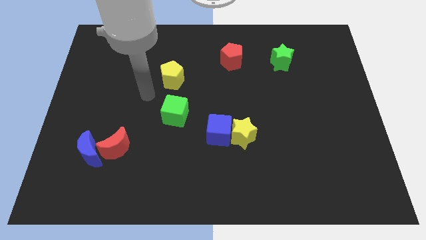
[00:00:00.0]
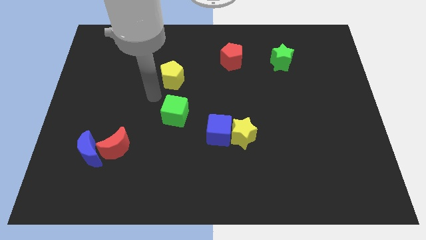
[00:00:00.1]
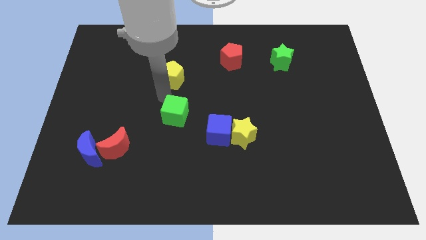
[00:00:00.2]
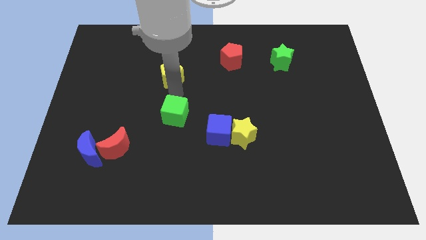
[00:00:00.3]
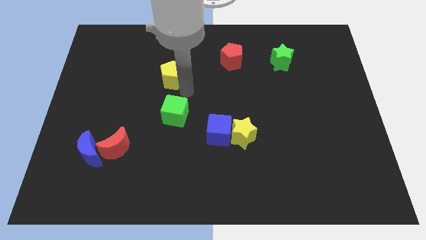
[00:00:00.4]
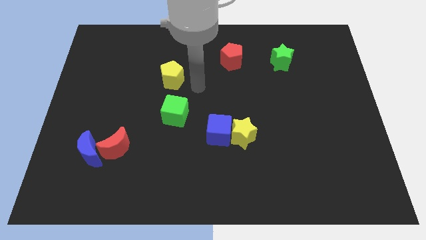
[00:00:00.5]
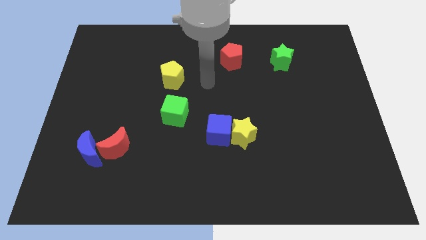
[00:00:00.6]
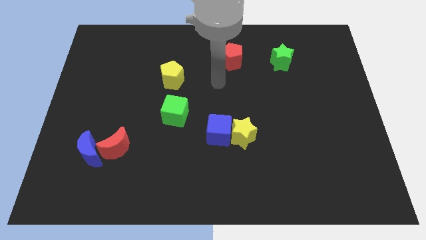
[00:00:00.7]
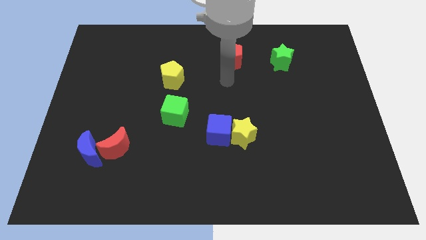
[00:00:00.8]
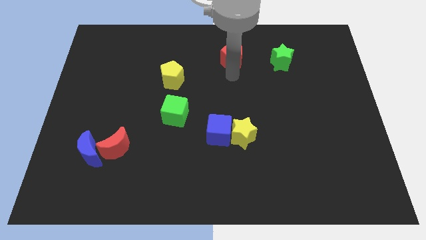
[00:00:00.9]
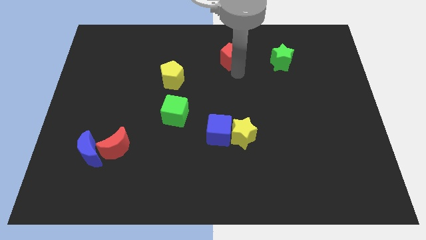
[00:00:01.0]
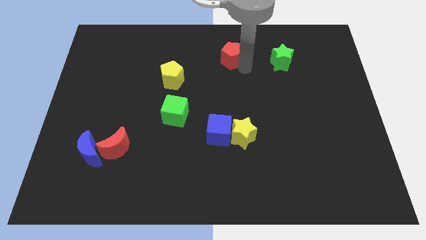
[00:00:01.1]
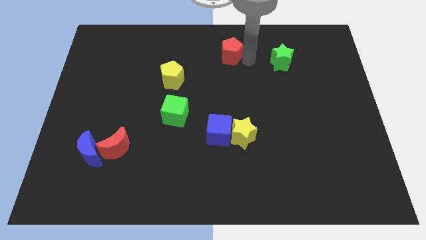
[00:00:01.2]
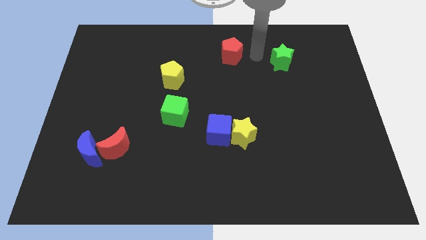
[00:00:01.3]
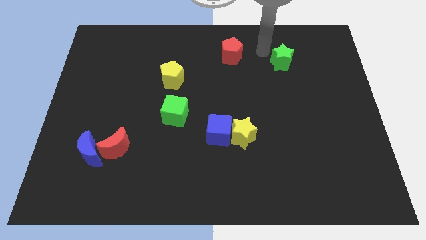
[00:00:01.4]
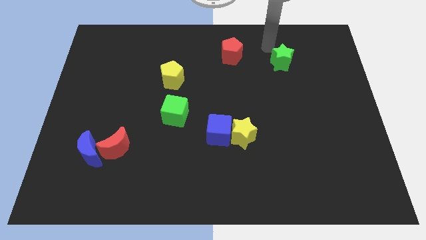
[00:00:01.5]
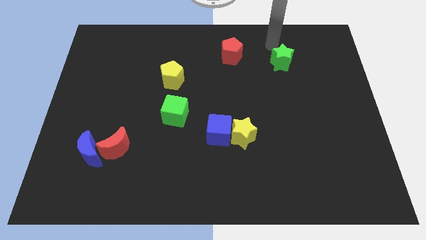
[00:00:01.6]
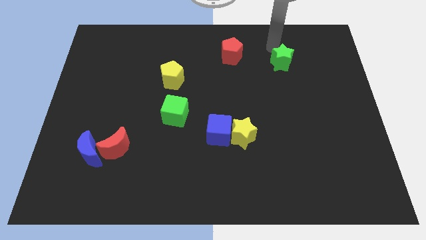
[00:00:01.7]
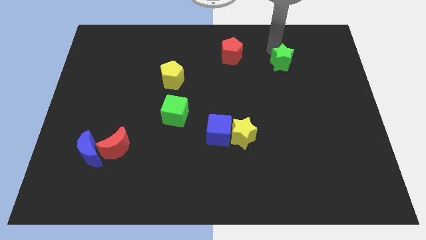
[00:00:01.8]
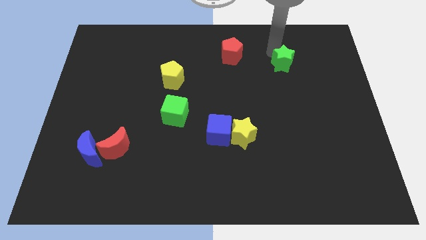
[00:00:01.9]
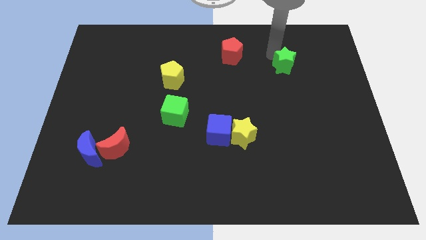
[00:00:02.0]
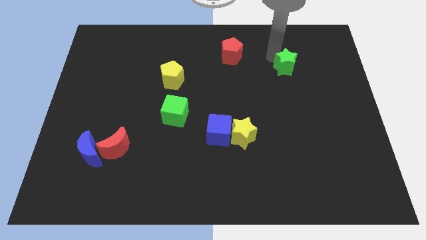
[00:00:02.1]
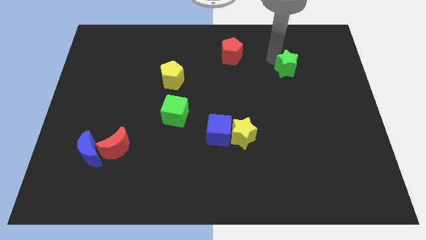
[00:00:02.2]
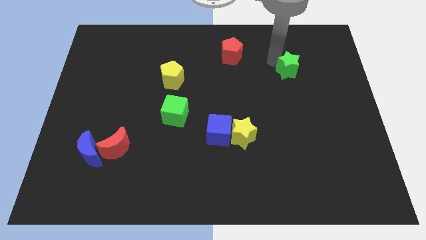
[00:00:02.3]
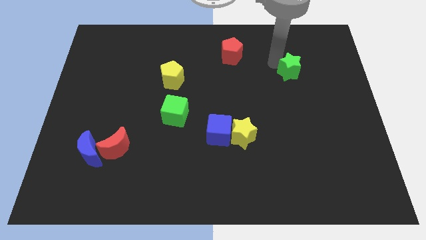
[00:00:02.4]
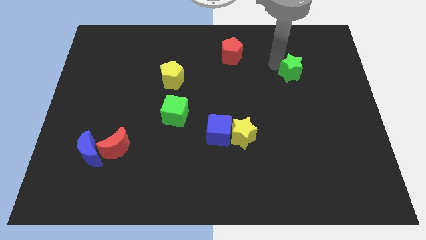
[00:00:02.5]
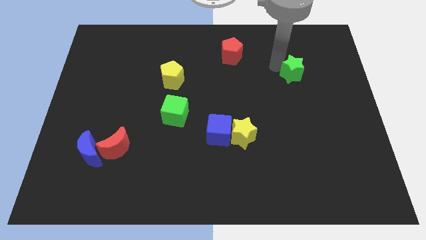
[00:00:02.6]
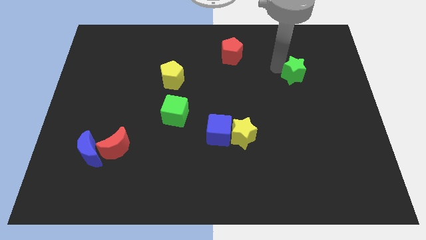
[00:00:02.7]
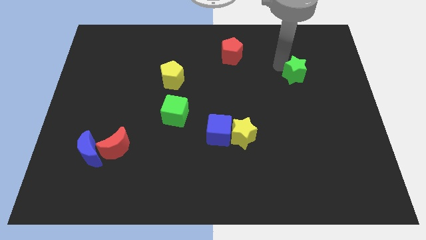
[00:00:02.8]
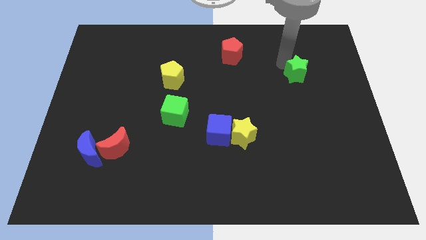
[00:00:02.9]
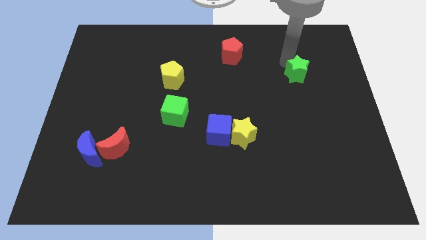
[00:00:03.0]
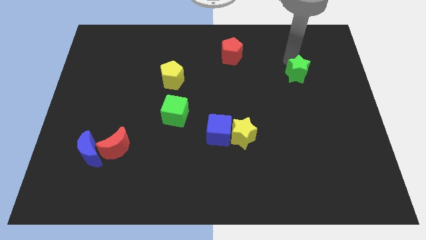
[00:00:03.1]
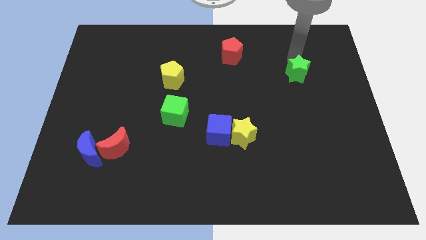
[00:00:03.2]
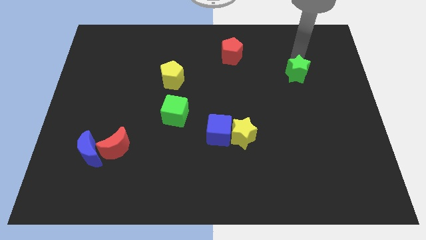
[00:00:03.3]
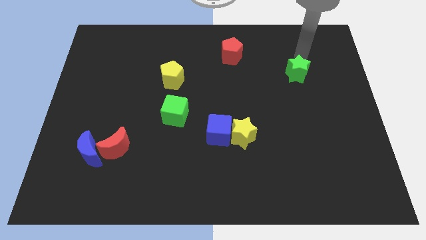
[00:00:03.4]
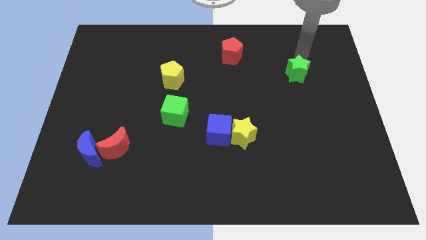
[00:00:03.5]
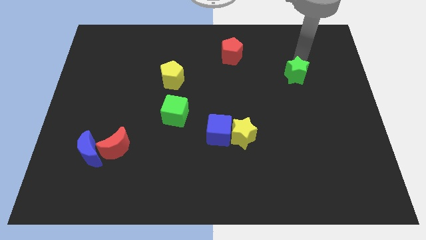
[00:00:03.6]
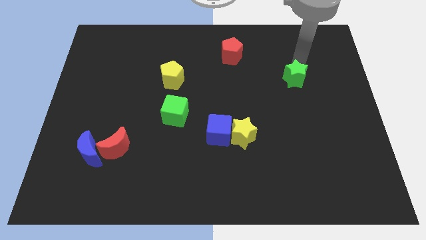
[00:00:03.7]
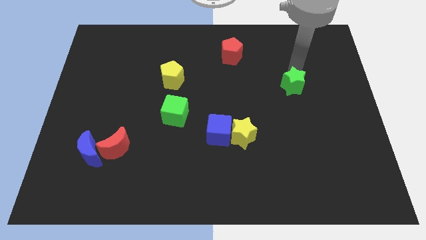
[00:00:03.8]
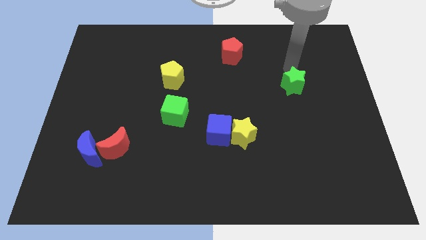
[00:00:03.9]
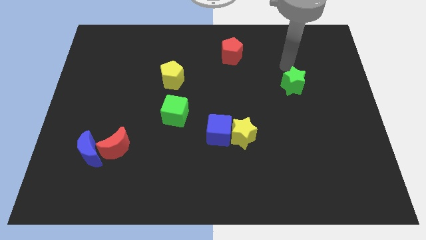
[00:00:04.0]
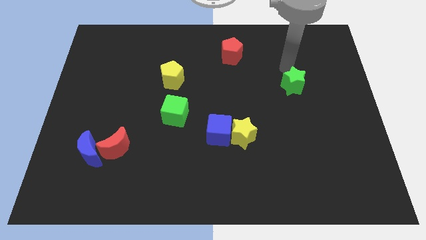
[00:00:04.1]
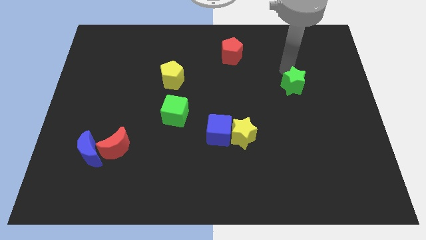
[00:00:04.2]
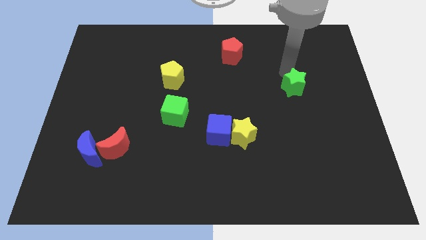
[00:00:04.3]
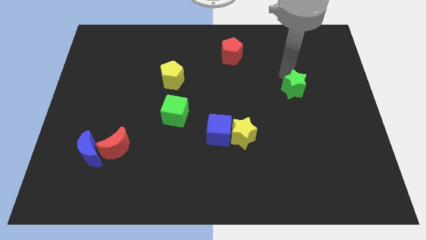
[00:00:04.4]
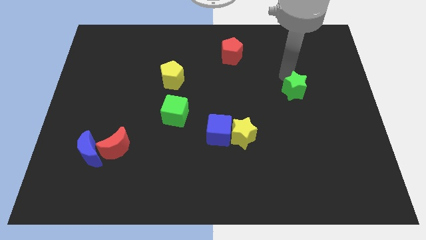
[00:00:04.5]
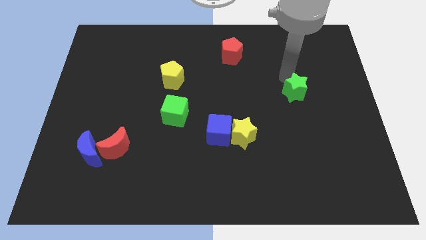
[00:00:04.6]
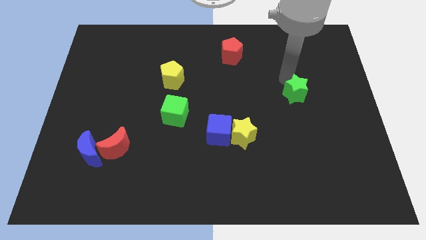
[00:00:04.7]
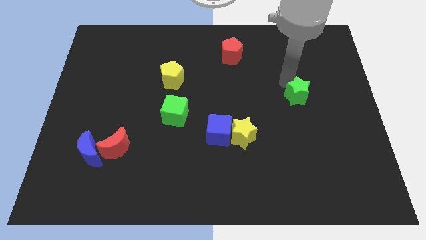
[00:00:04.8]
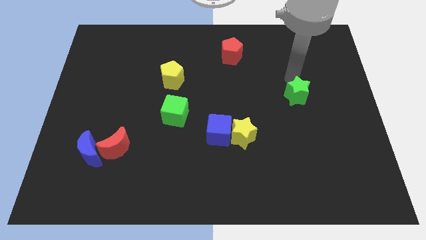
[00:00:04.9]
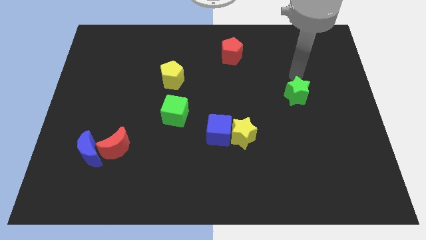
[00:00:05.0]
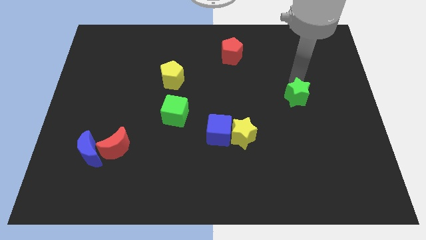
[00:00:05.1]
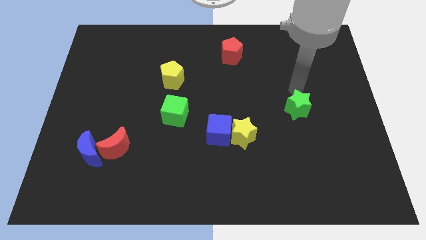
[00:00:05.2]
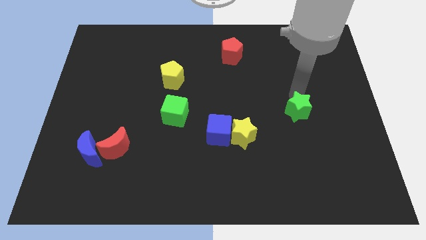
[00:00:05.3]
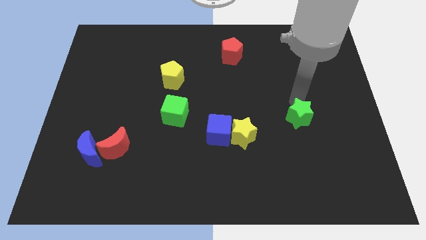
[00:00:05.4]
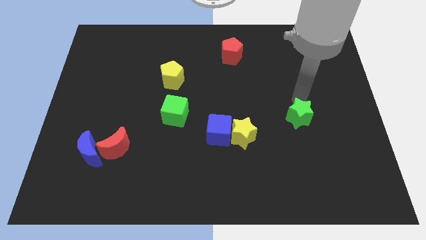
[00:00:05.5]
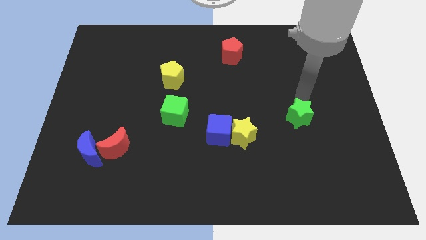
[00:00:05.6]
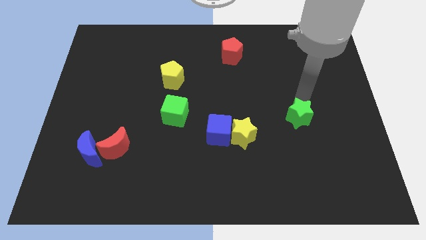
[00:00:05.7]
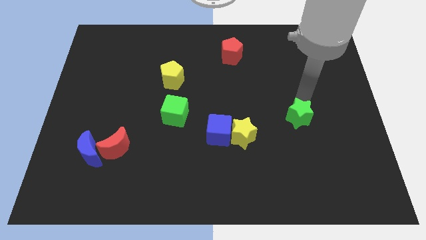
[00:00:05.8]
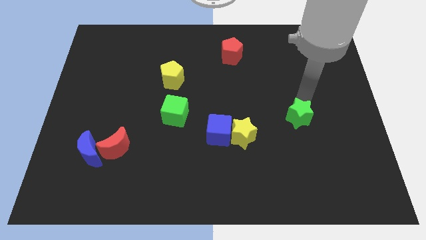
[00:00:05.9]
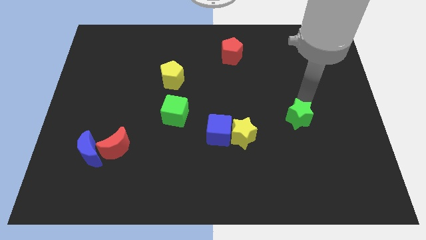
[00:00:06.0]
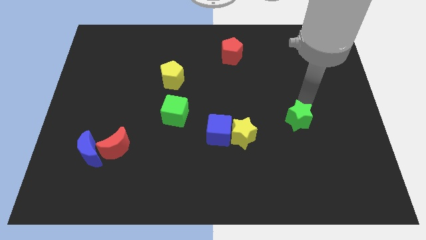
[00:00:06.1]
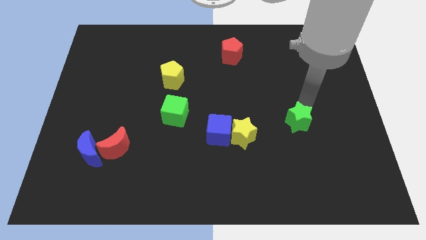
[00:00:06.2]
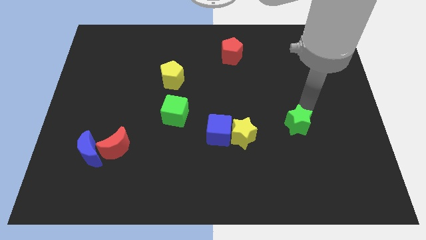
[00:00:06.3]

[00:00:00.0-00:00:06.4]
push the green star down

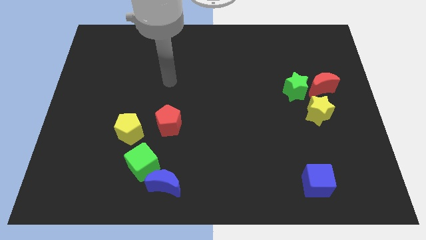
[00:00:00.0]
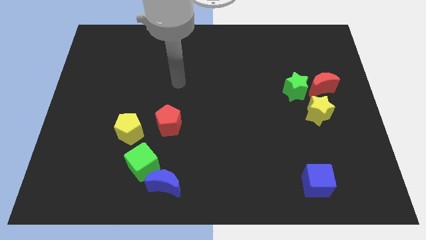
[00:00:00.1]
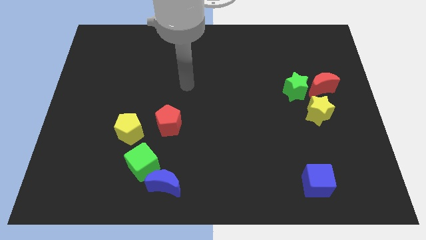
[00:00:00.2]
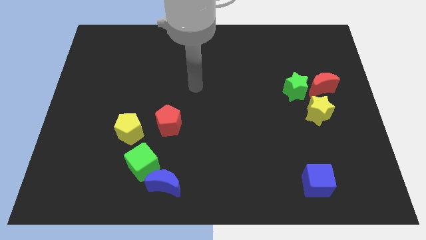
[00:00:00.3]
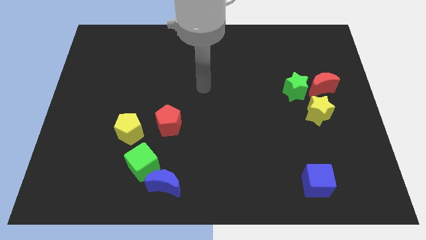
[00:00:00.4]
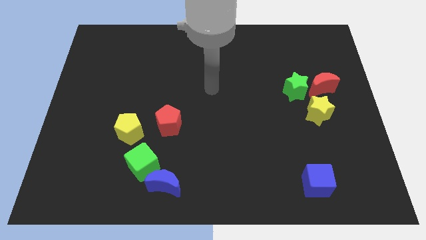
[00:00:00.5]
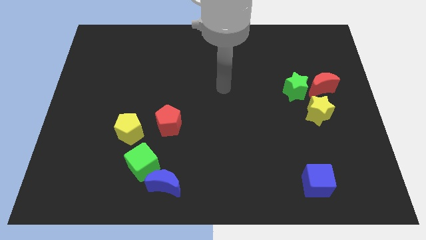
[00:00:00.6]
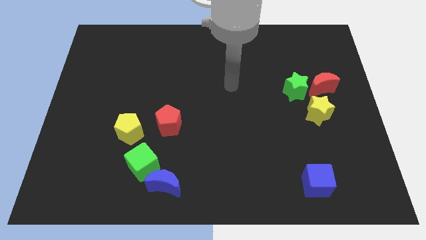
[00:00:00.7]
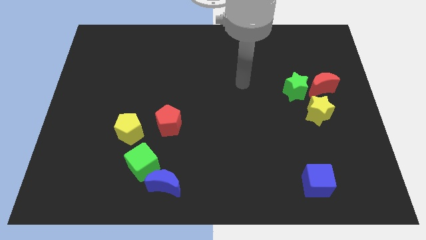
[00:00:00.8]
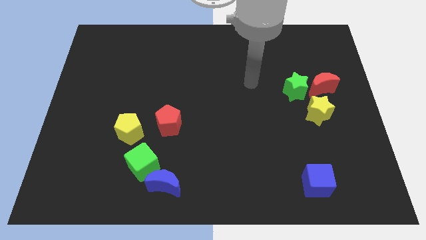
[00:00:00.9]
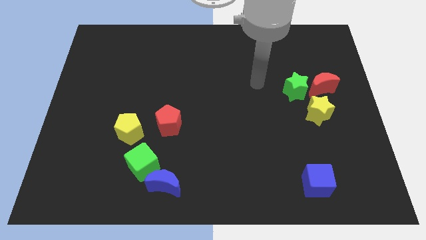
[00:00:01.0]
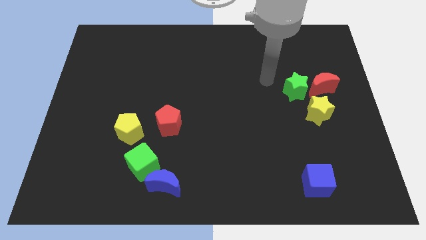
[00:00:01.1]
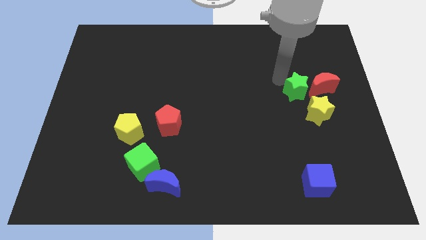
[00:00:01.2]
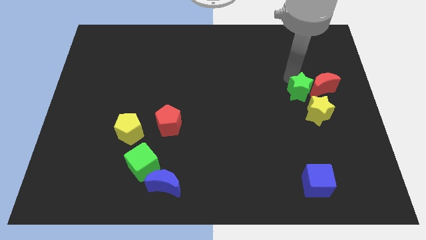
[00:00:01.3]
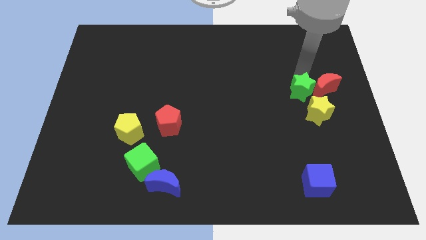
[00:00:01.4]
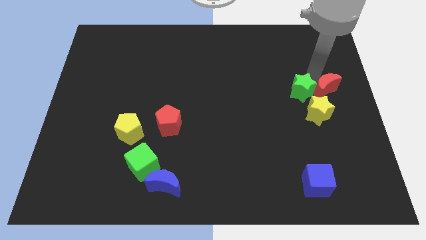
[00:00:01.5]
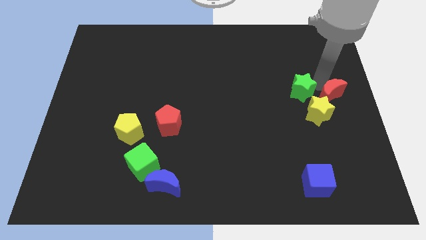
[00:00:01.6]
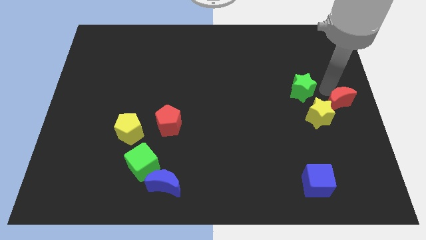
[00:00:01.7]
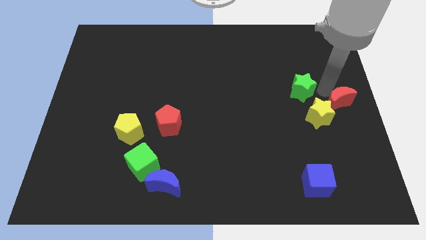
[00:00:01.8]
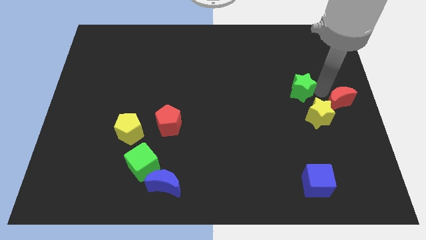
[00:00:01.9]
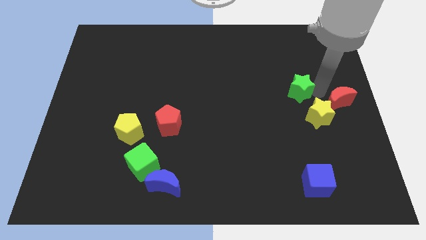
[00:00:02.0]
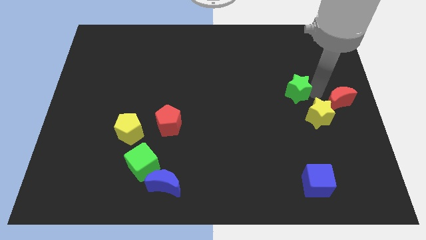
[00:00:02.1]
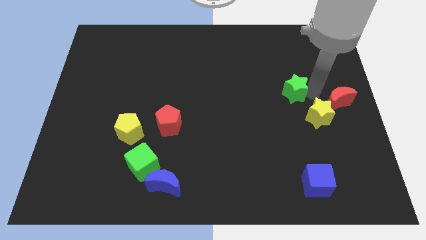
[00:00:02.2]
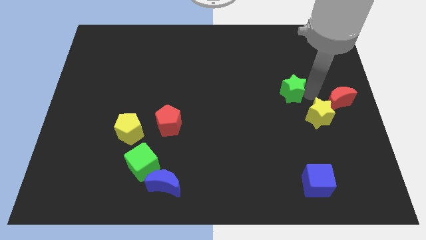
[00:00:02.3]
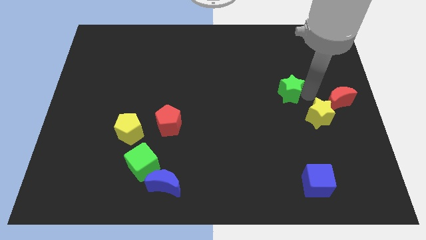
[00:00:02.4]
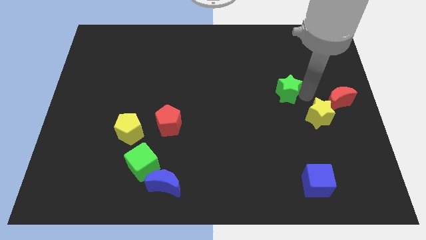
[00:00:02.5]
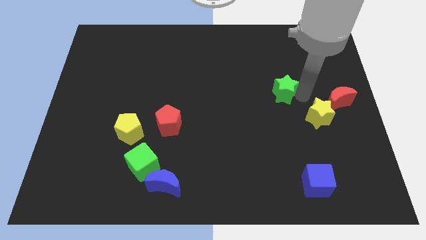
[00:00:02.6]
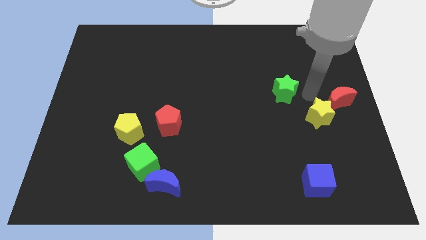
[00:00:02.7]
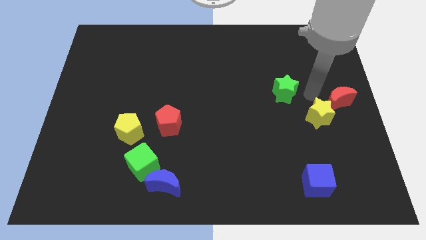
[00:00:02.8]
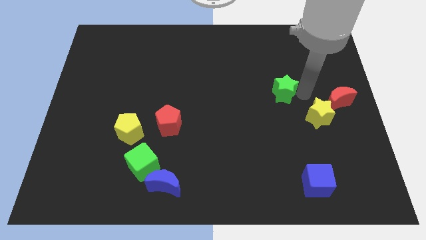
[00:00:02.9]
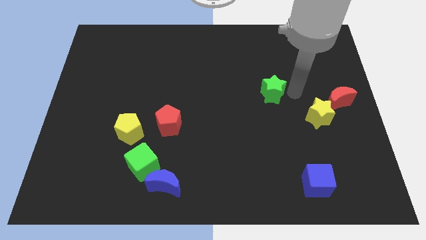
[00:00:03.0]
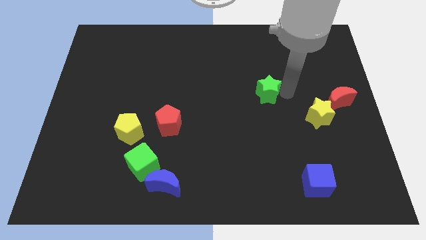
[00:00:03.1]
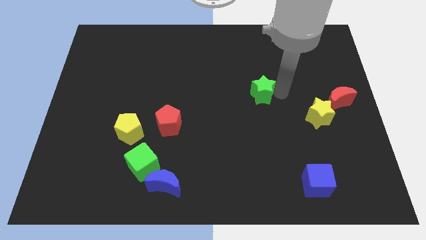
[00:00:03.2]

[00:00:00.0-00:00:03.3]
move the green star slightly left
